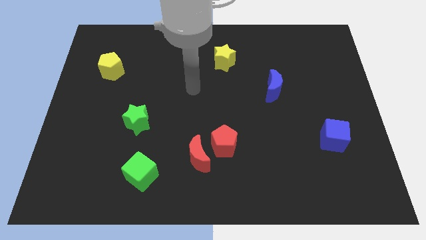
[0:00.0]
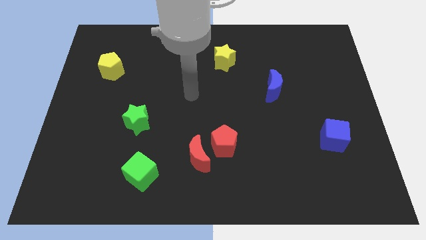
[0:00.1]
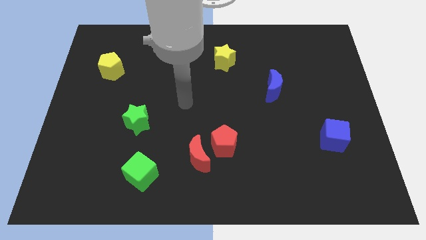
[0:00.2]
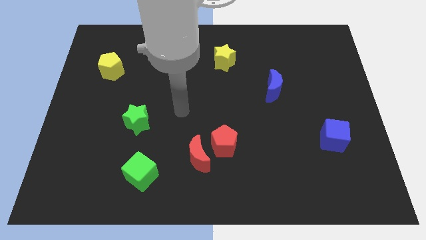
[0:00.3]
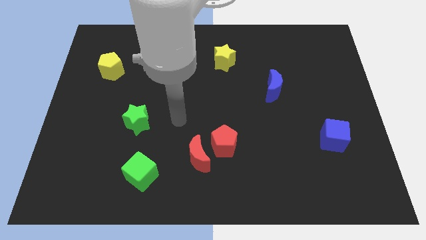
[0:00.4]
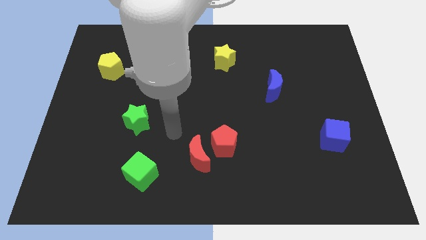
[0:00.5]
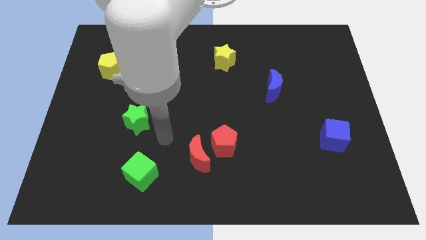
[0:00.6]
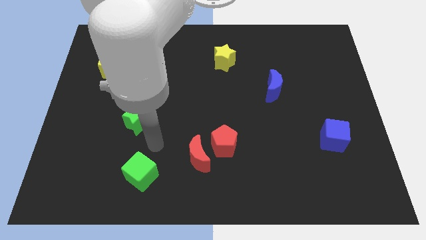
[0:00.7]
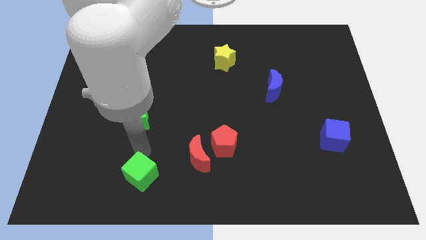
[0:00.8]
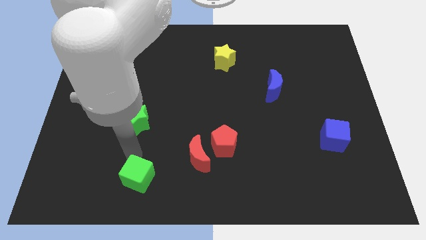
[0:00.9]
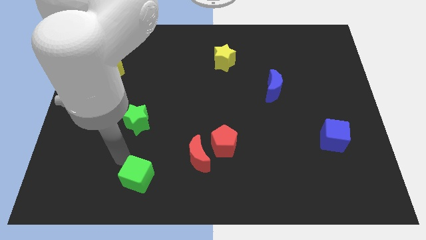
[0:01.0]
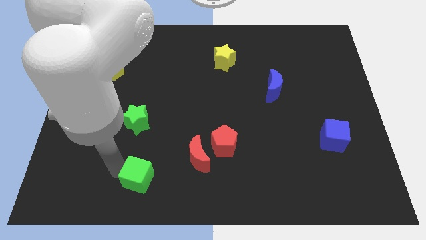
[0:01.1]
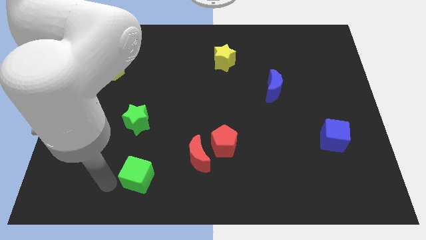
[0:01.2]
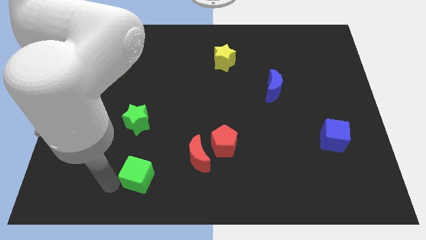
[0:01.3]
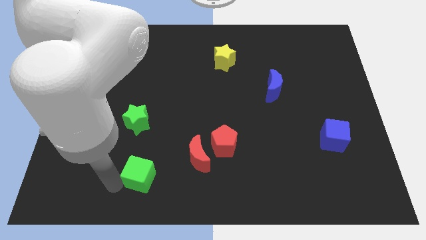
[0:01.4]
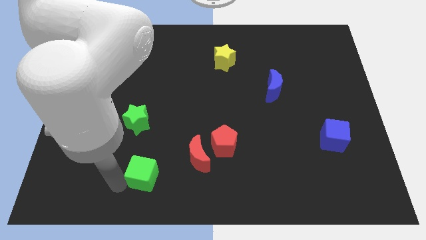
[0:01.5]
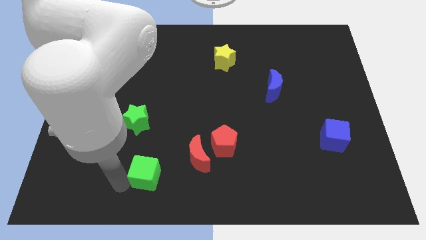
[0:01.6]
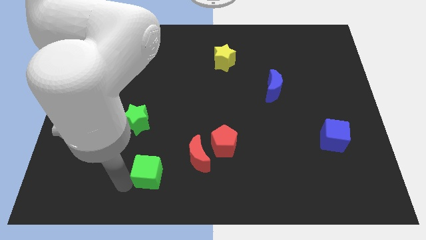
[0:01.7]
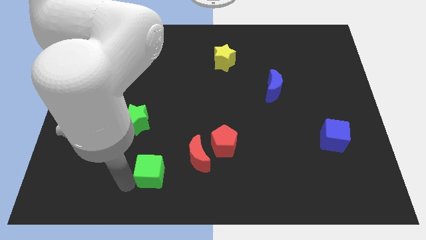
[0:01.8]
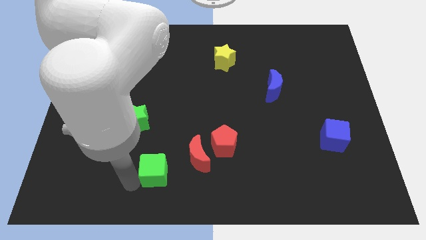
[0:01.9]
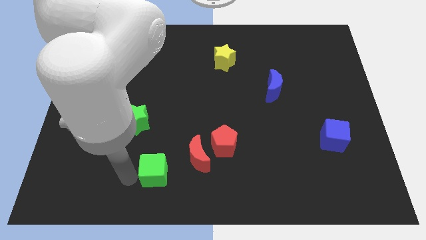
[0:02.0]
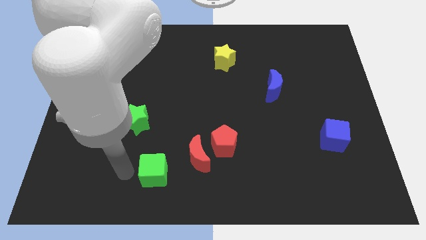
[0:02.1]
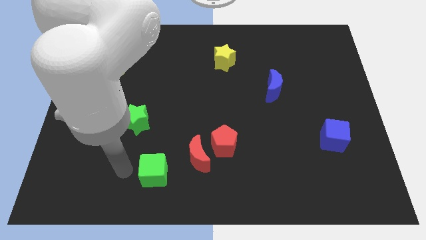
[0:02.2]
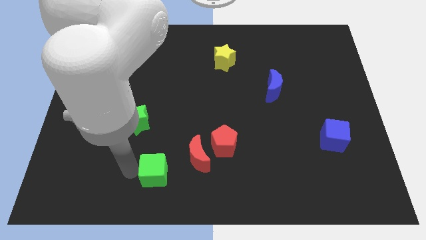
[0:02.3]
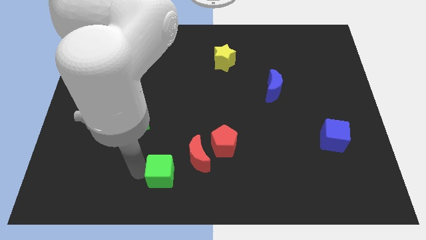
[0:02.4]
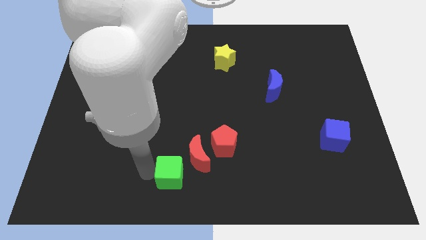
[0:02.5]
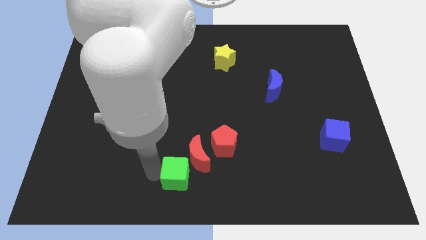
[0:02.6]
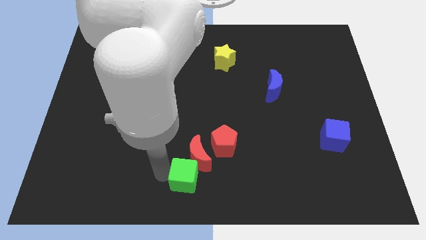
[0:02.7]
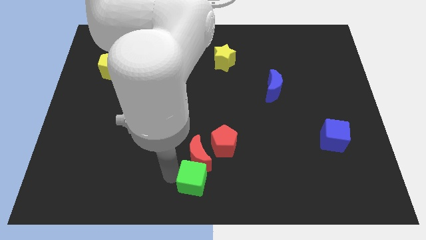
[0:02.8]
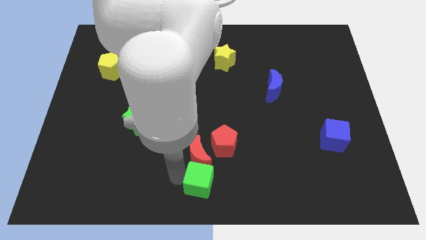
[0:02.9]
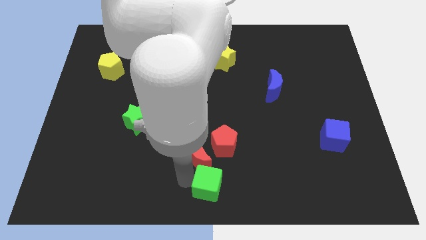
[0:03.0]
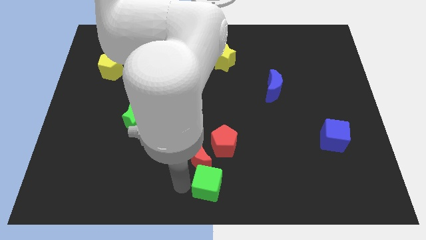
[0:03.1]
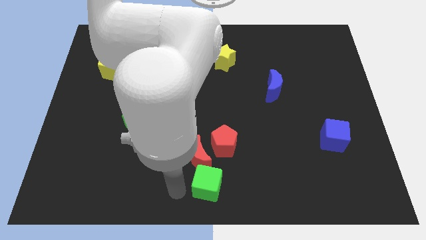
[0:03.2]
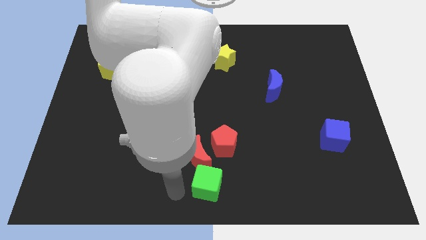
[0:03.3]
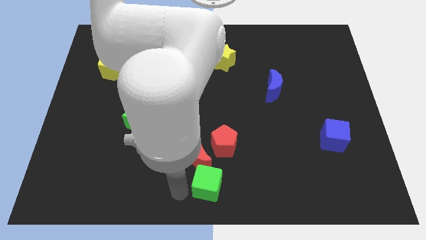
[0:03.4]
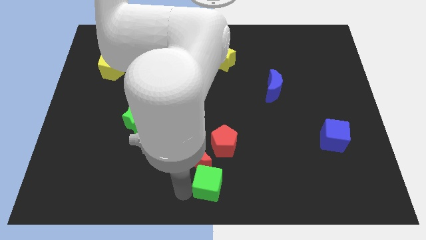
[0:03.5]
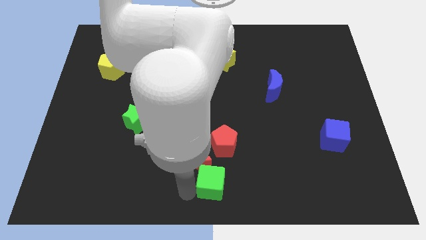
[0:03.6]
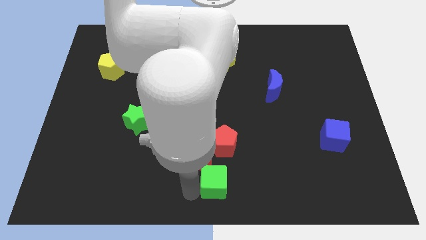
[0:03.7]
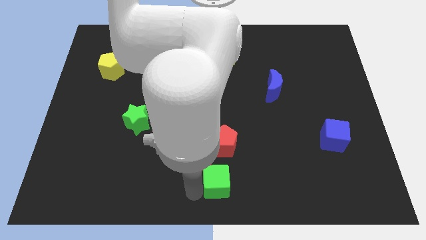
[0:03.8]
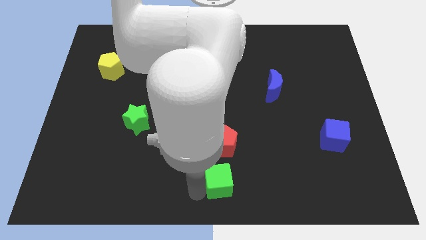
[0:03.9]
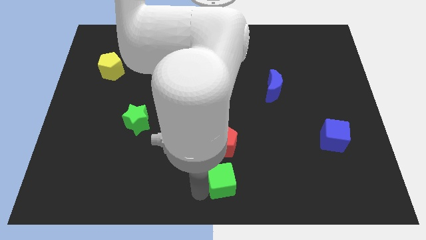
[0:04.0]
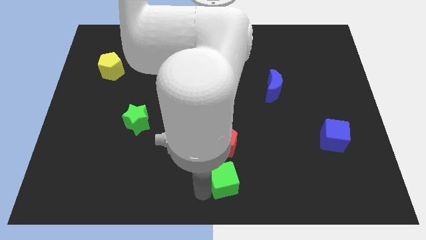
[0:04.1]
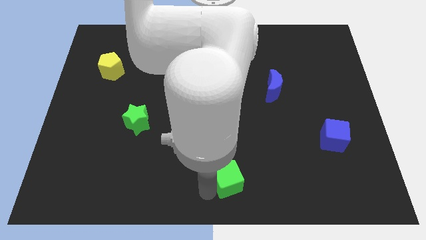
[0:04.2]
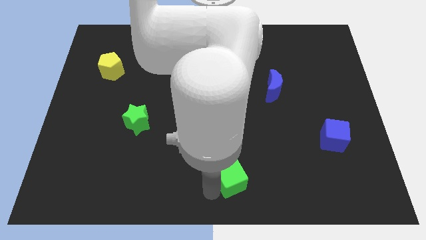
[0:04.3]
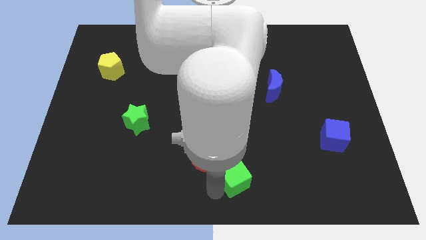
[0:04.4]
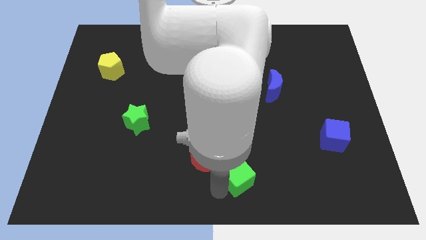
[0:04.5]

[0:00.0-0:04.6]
push the green cube to the right of the red moon

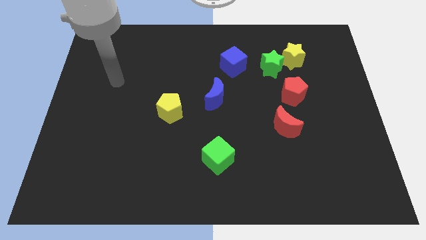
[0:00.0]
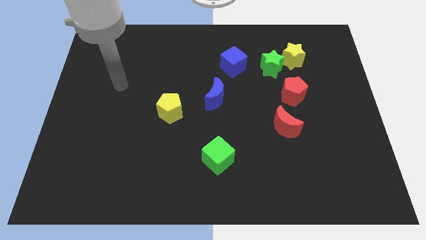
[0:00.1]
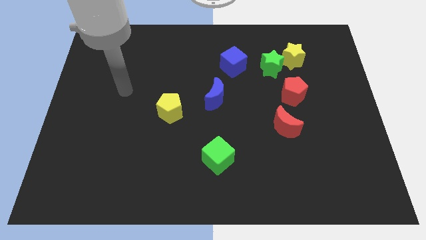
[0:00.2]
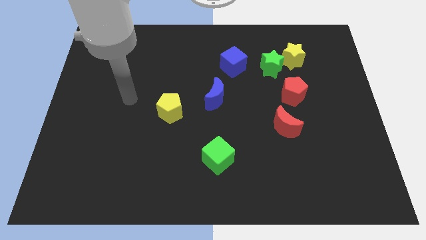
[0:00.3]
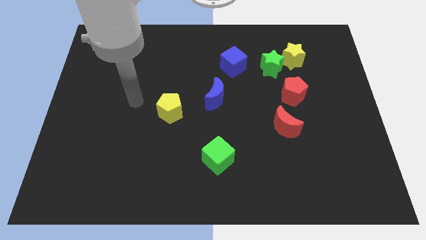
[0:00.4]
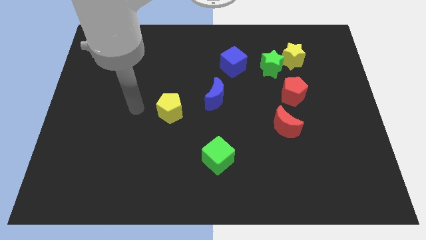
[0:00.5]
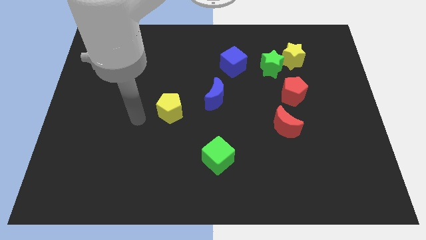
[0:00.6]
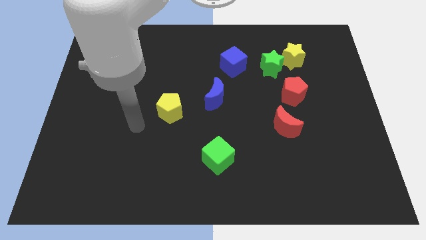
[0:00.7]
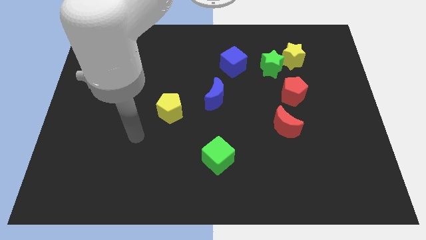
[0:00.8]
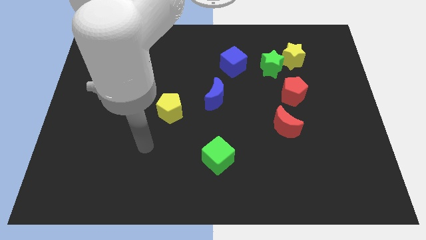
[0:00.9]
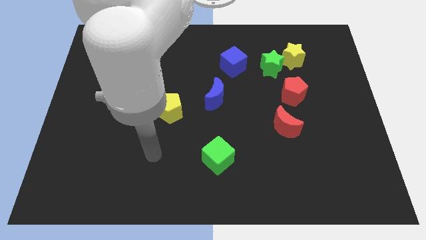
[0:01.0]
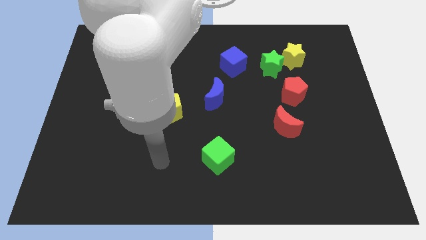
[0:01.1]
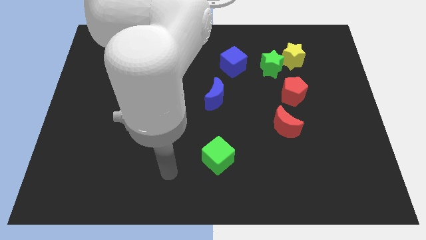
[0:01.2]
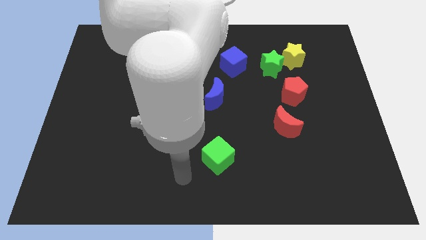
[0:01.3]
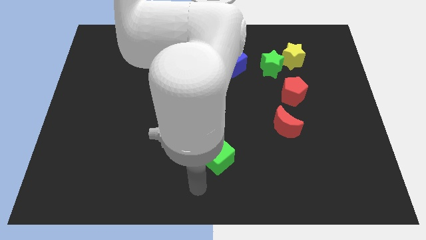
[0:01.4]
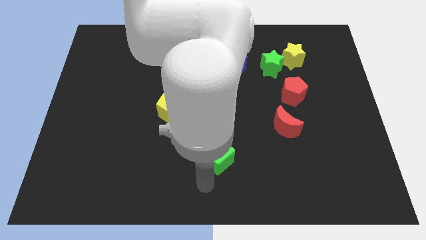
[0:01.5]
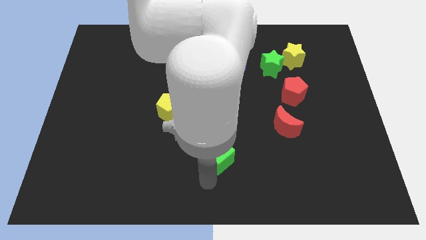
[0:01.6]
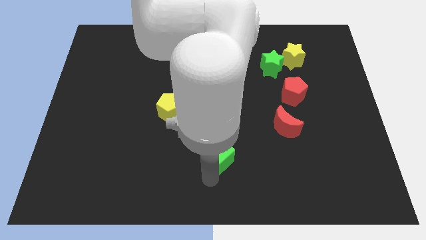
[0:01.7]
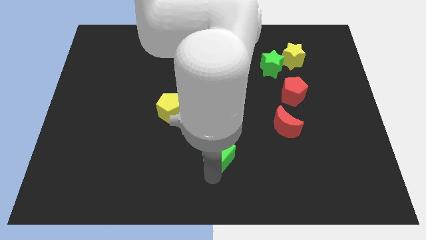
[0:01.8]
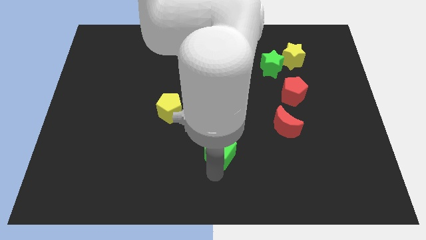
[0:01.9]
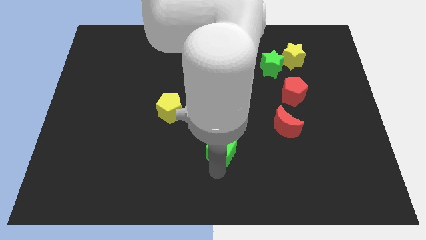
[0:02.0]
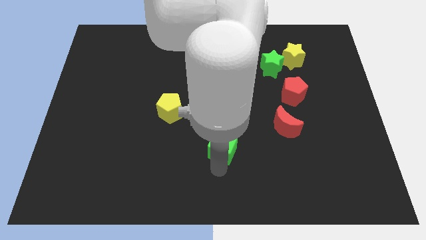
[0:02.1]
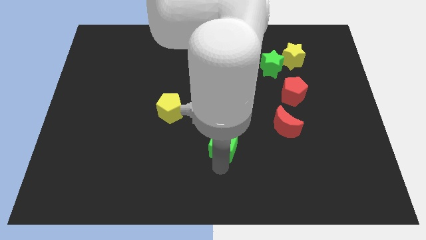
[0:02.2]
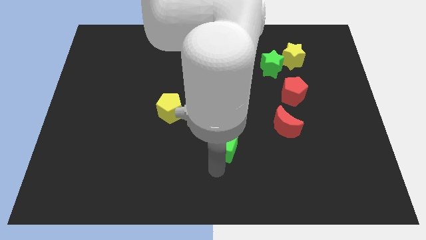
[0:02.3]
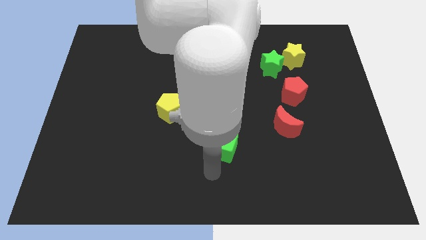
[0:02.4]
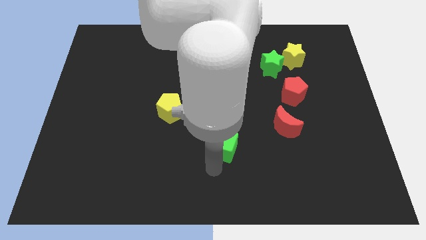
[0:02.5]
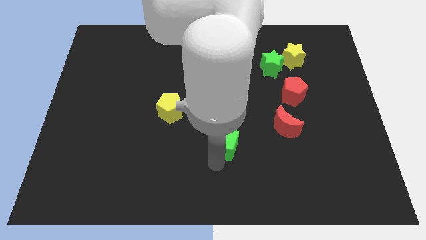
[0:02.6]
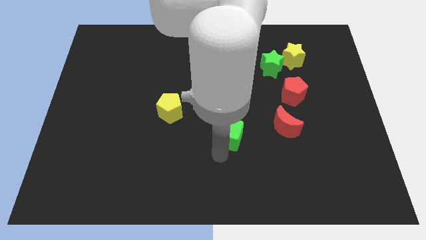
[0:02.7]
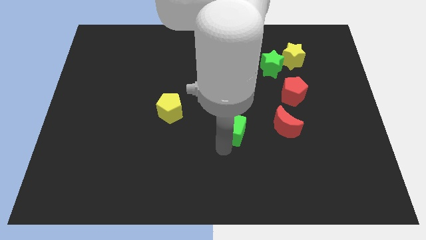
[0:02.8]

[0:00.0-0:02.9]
move the green cube diagonally down and to the right of the blue moon

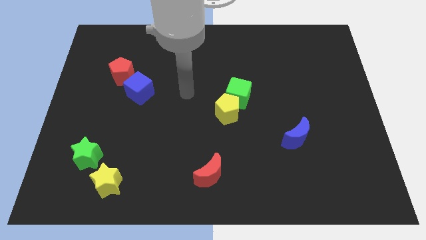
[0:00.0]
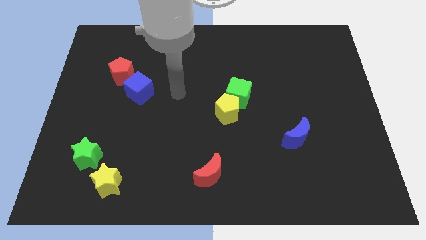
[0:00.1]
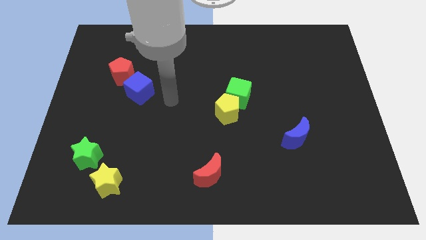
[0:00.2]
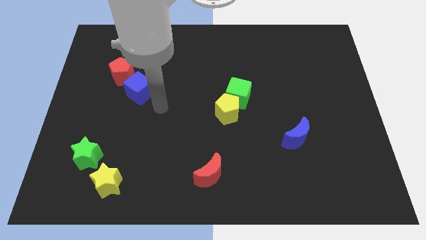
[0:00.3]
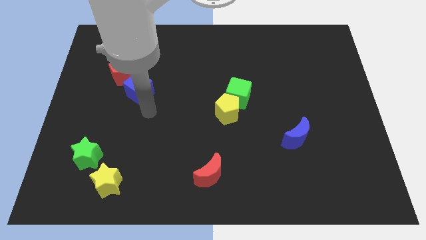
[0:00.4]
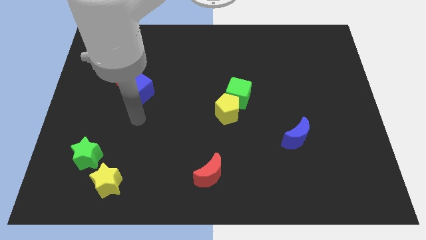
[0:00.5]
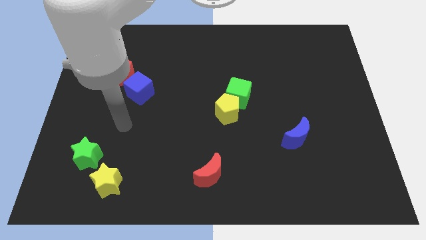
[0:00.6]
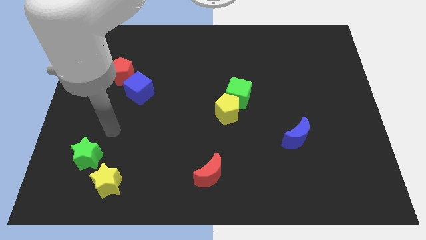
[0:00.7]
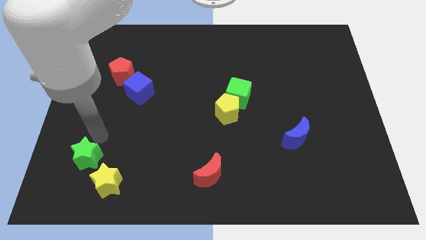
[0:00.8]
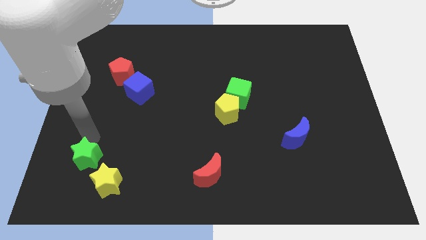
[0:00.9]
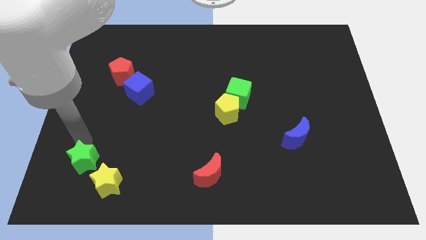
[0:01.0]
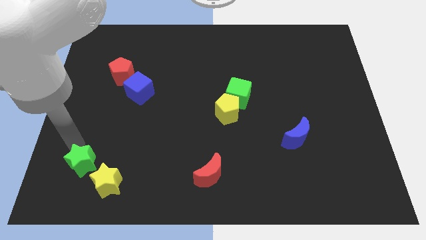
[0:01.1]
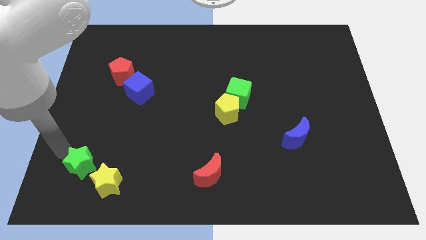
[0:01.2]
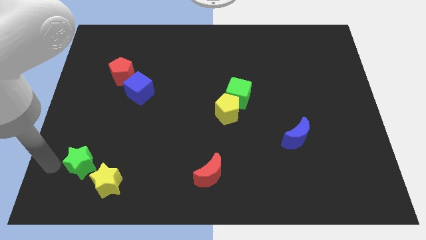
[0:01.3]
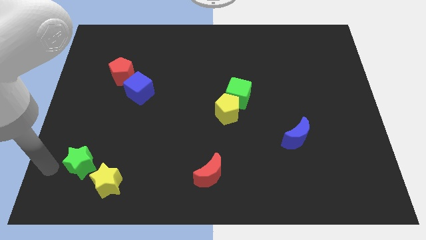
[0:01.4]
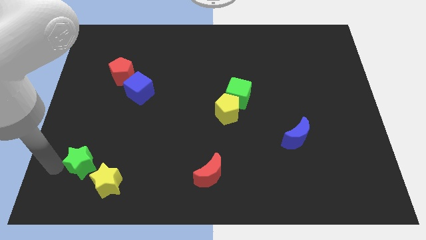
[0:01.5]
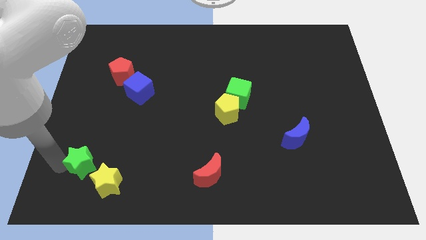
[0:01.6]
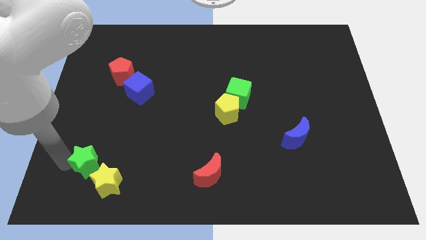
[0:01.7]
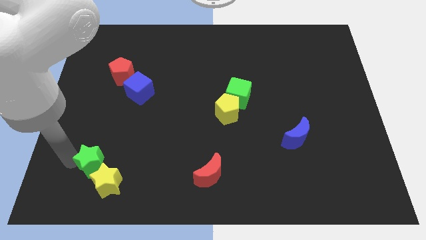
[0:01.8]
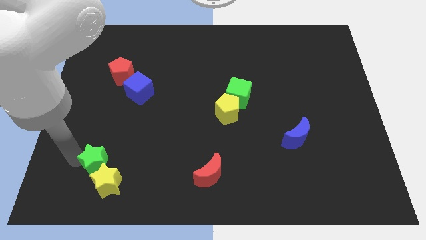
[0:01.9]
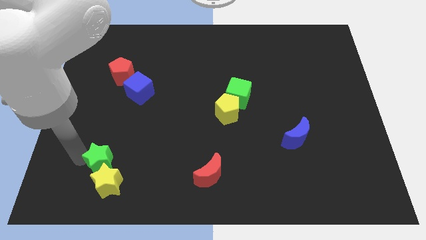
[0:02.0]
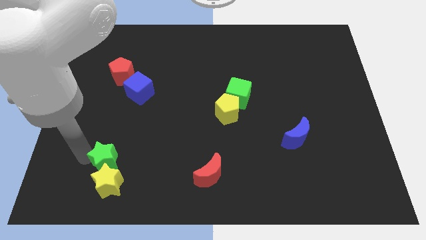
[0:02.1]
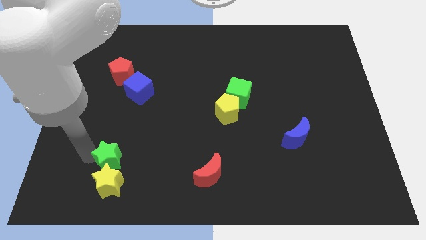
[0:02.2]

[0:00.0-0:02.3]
slide the green star to the top right of the yellow star
